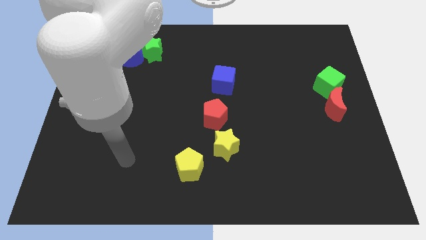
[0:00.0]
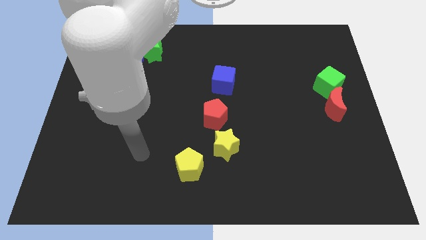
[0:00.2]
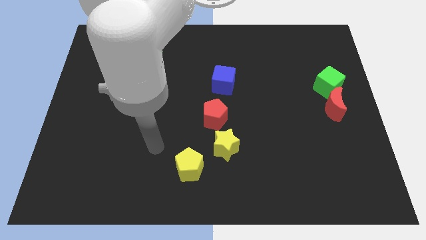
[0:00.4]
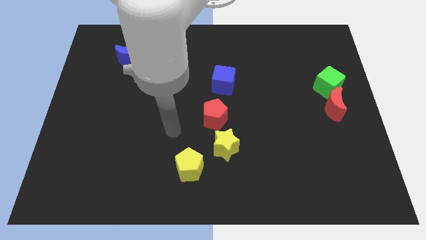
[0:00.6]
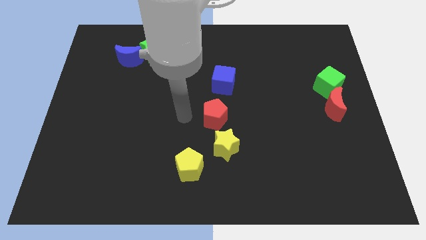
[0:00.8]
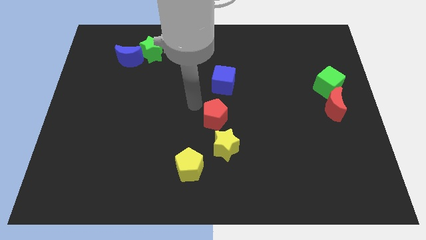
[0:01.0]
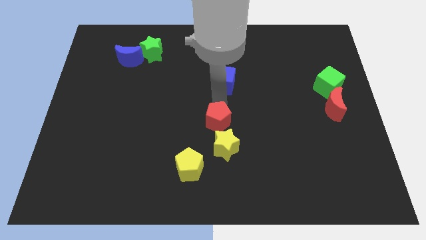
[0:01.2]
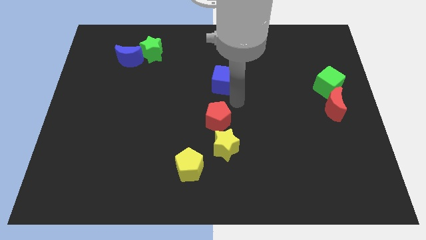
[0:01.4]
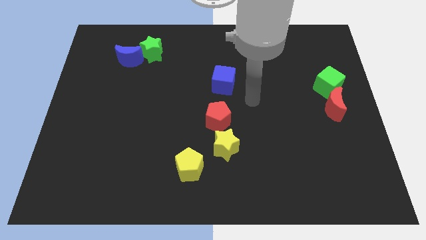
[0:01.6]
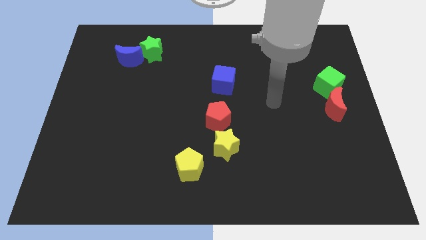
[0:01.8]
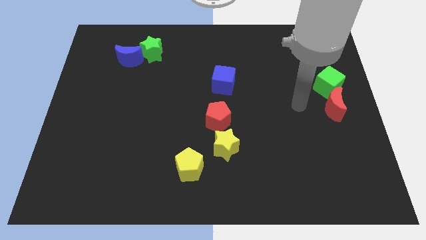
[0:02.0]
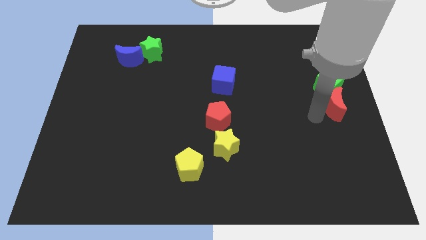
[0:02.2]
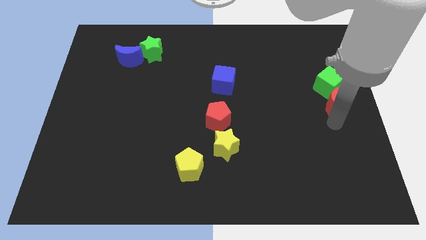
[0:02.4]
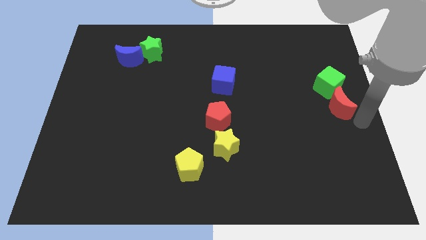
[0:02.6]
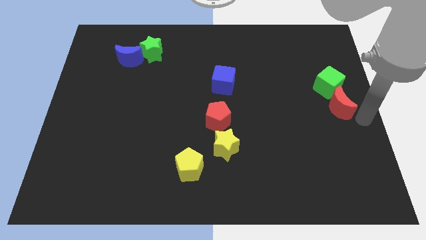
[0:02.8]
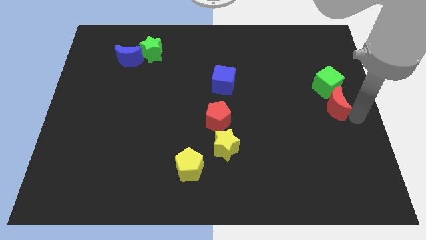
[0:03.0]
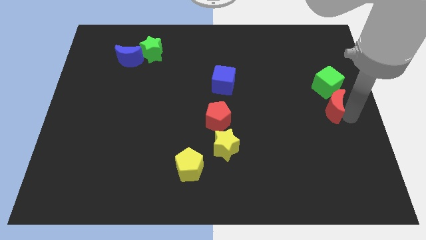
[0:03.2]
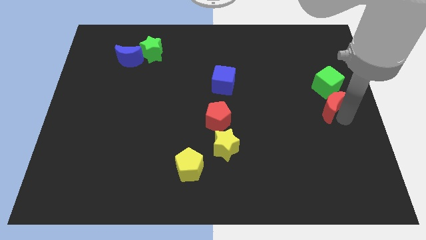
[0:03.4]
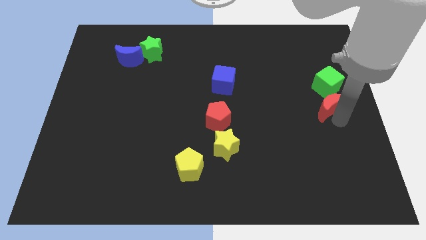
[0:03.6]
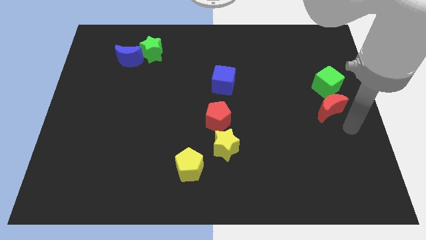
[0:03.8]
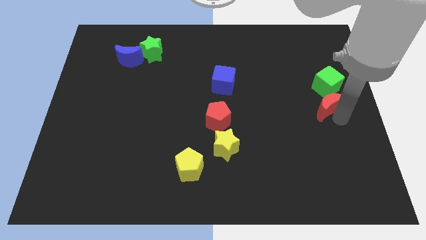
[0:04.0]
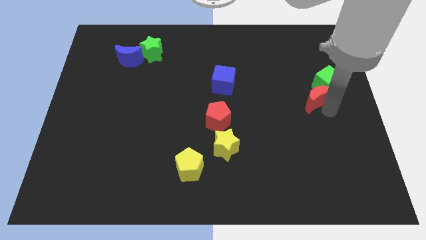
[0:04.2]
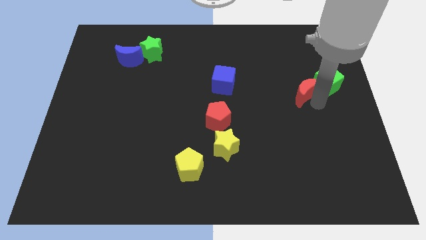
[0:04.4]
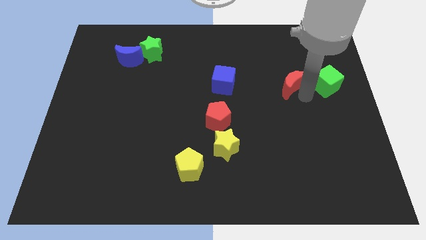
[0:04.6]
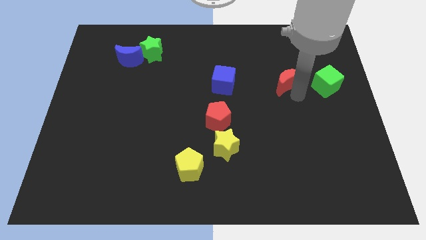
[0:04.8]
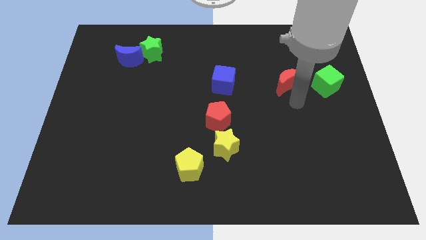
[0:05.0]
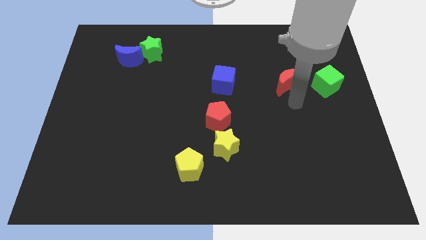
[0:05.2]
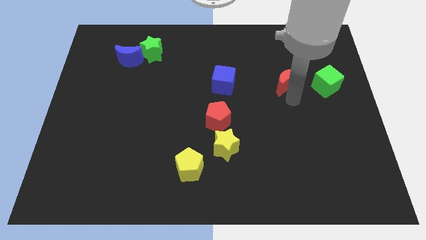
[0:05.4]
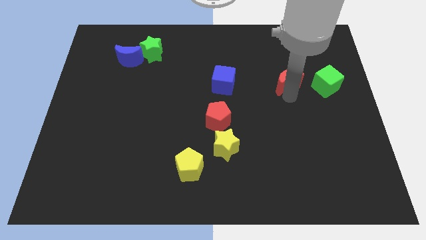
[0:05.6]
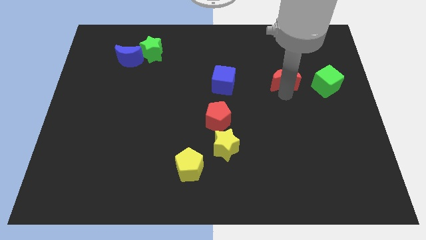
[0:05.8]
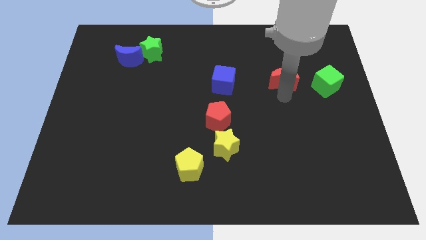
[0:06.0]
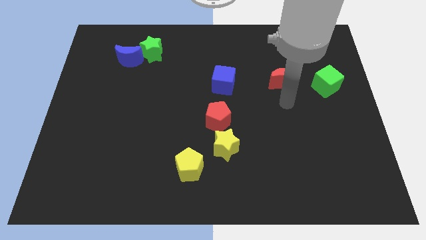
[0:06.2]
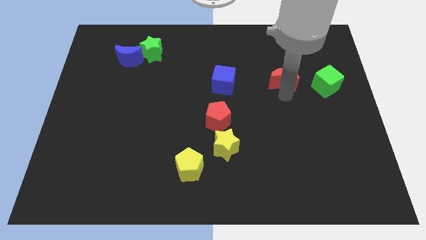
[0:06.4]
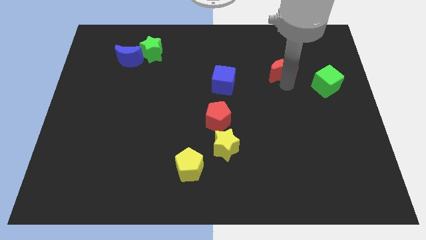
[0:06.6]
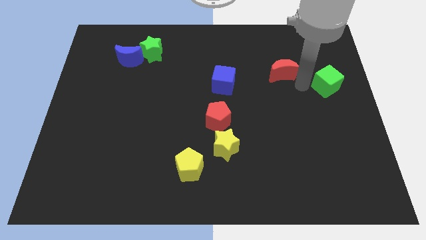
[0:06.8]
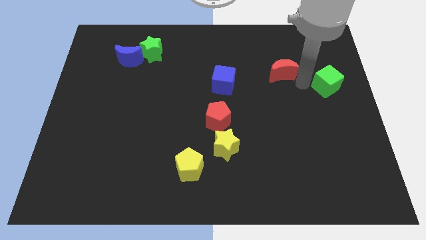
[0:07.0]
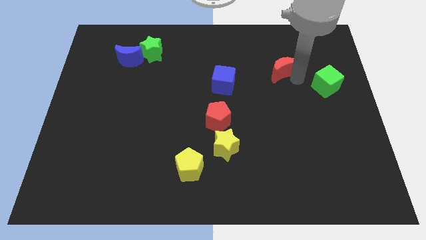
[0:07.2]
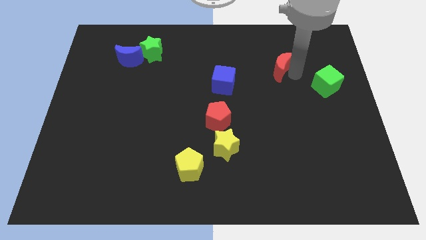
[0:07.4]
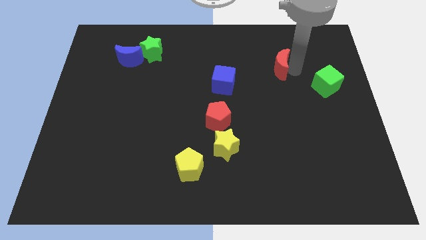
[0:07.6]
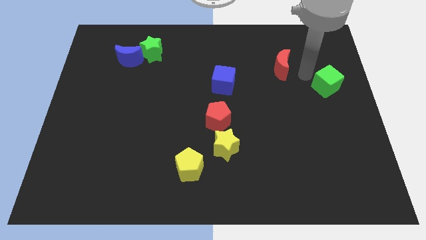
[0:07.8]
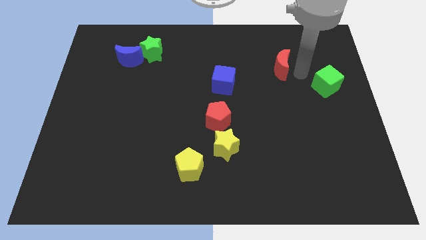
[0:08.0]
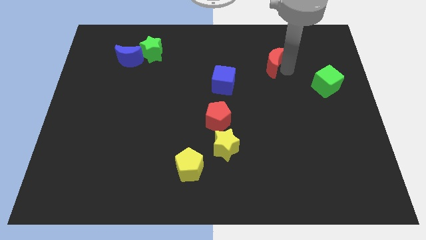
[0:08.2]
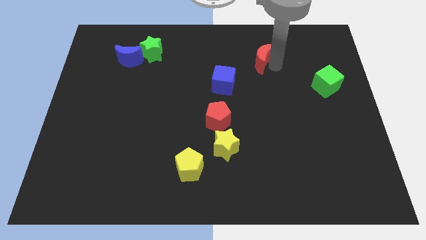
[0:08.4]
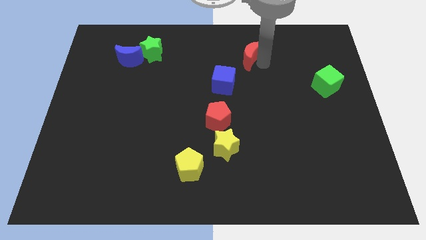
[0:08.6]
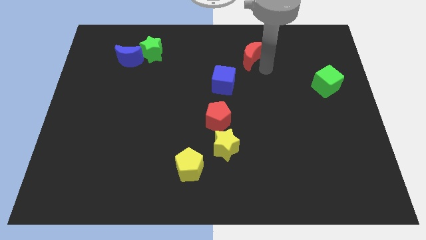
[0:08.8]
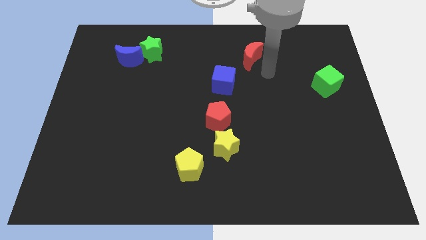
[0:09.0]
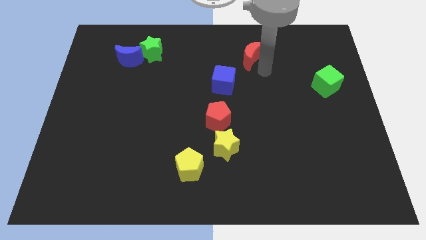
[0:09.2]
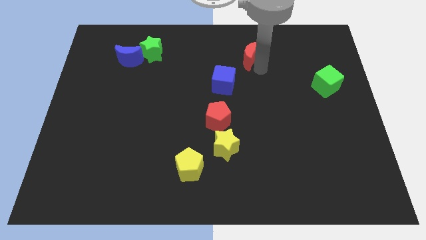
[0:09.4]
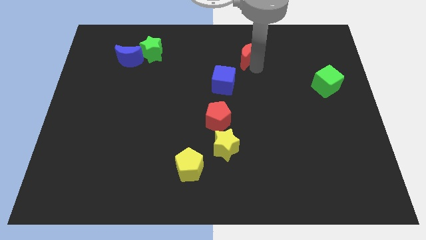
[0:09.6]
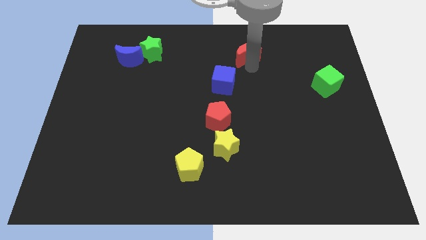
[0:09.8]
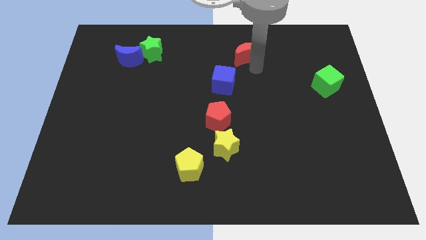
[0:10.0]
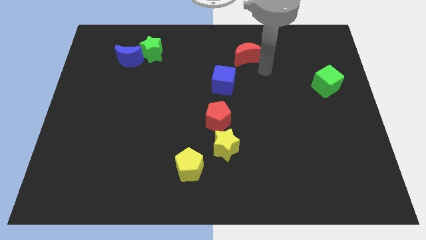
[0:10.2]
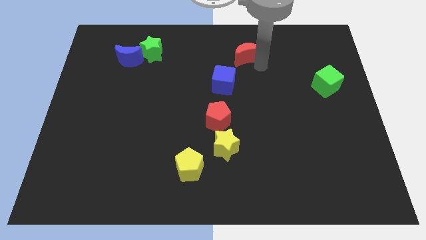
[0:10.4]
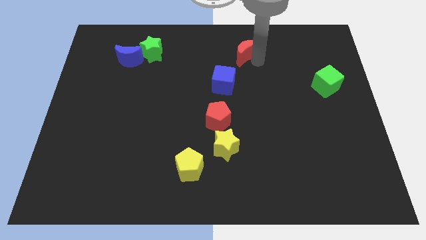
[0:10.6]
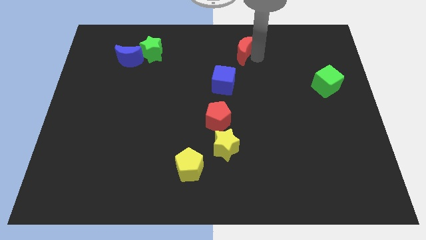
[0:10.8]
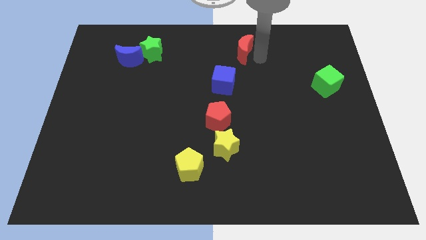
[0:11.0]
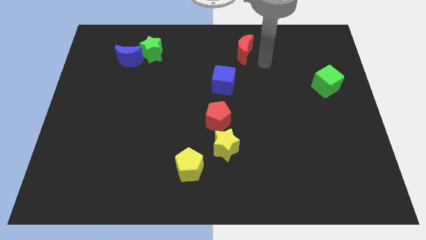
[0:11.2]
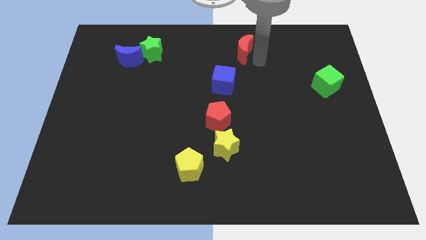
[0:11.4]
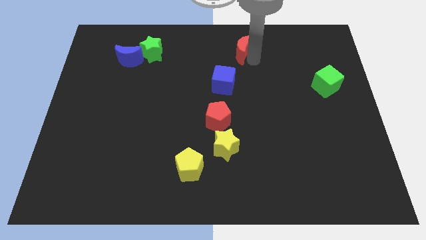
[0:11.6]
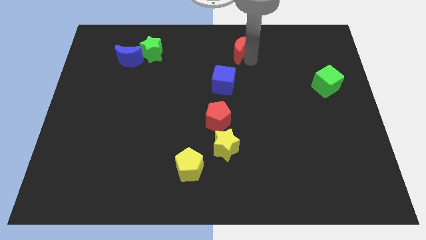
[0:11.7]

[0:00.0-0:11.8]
push the red moon to the top
